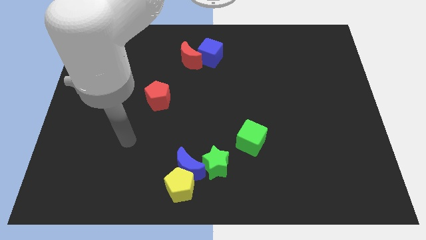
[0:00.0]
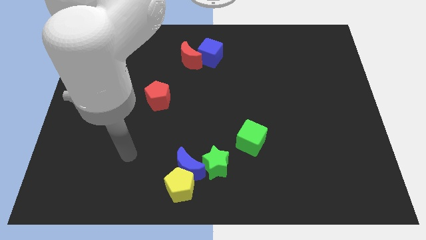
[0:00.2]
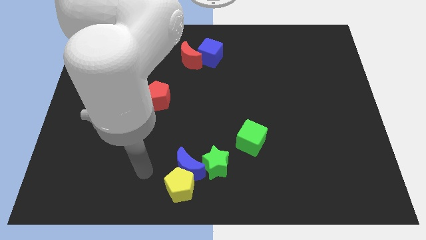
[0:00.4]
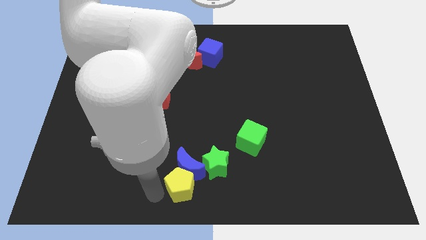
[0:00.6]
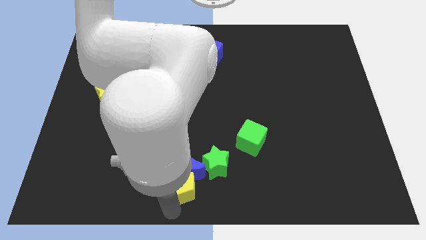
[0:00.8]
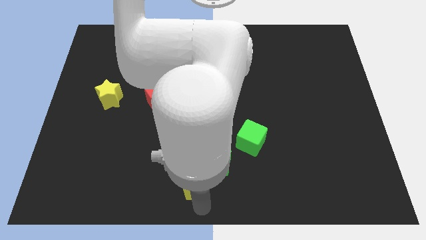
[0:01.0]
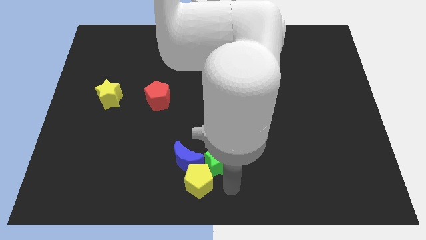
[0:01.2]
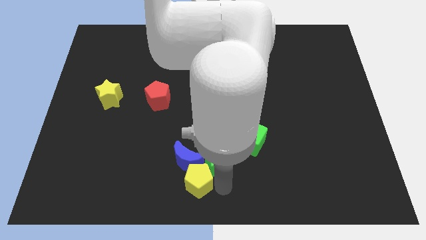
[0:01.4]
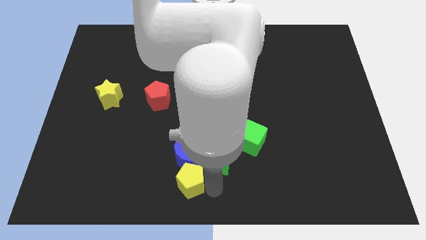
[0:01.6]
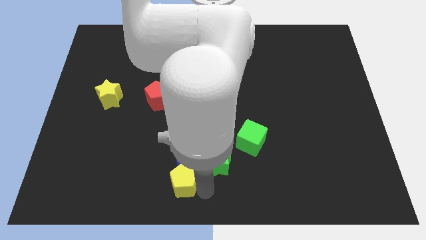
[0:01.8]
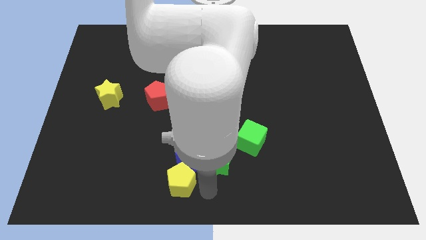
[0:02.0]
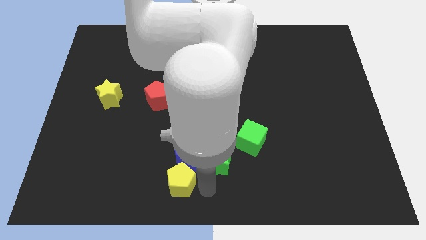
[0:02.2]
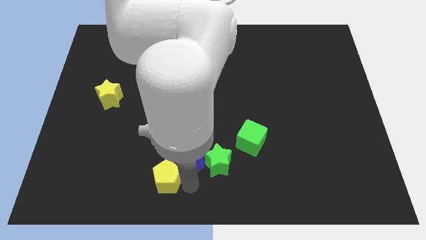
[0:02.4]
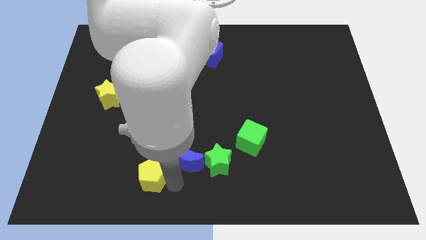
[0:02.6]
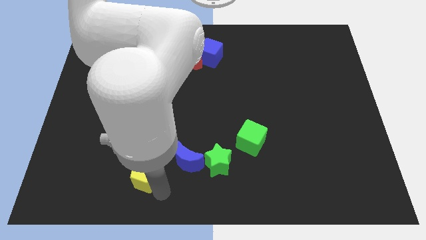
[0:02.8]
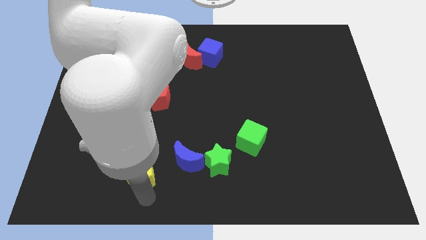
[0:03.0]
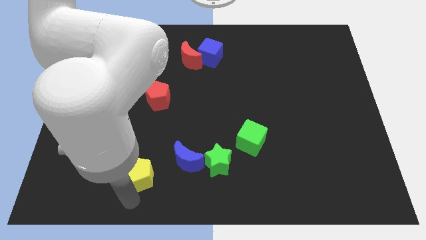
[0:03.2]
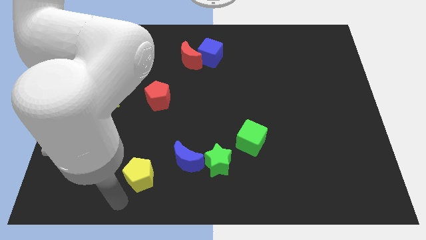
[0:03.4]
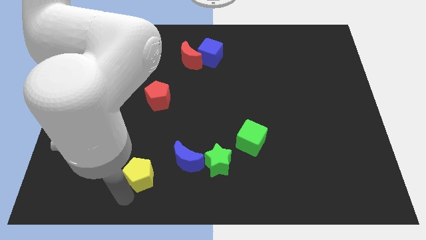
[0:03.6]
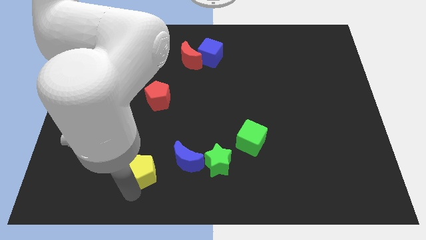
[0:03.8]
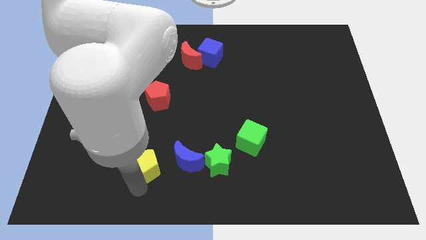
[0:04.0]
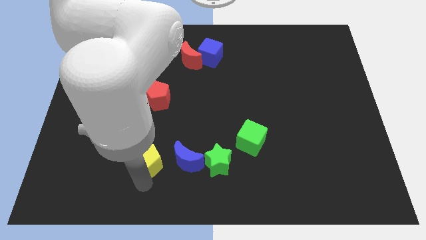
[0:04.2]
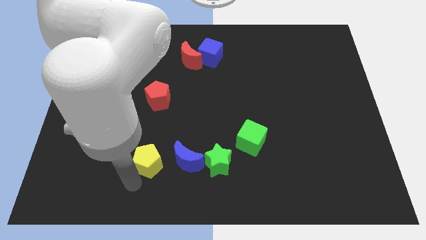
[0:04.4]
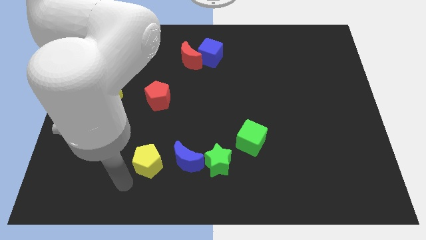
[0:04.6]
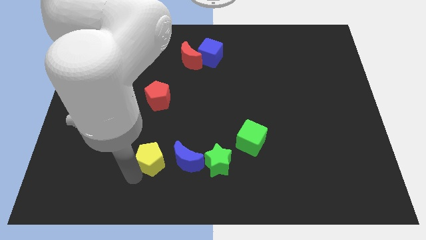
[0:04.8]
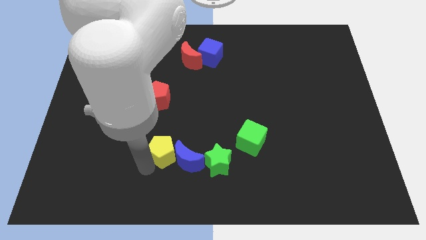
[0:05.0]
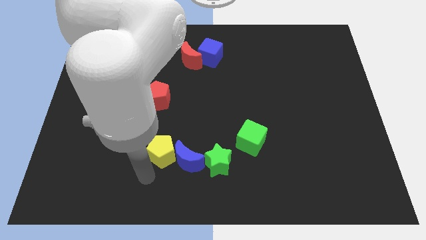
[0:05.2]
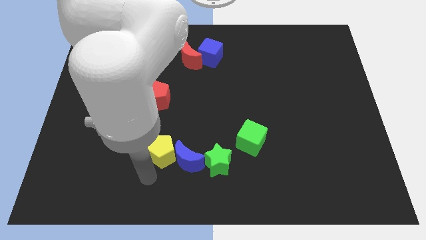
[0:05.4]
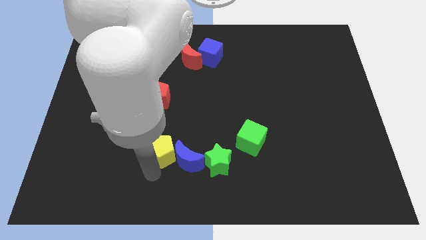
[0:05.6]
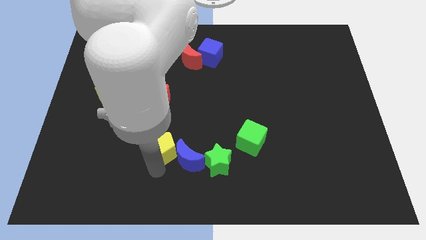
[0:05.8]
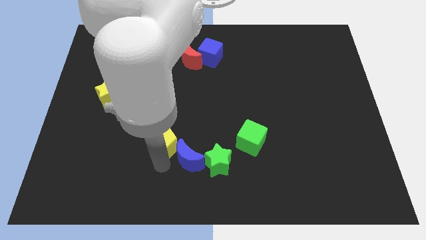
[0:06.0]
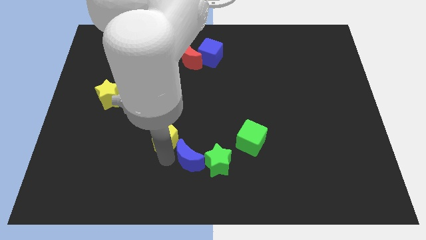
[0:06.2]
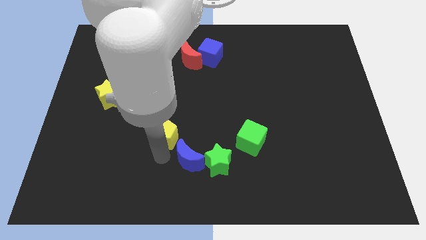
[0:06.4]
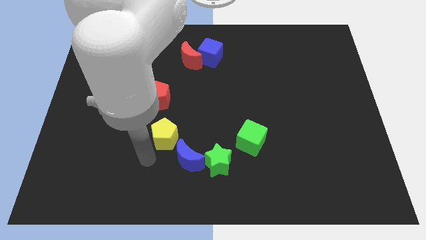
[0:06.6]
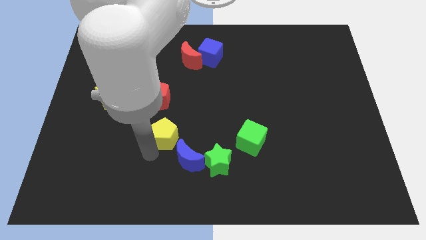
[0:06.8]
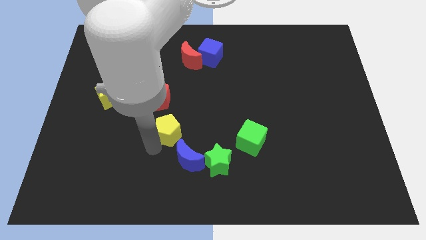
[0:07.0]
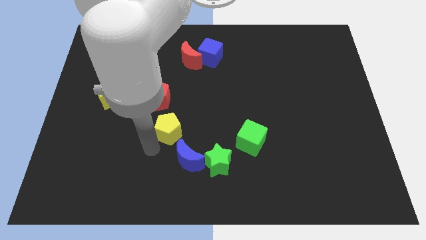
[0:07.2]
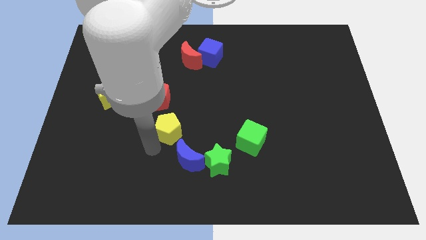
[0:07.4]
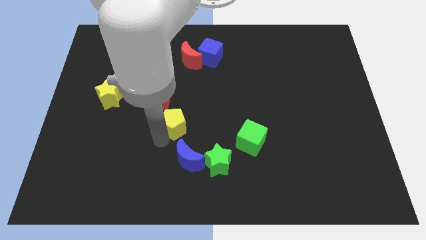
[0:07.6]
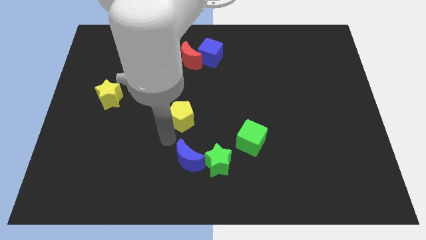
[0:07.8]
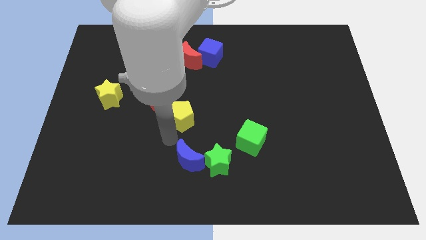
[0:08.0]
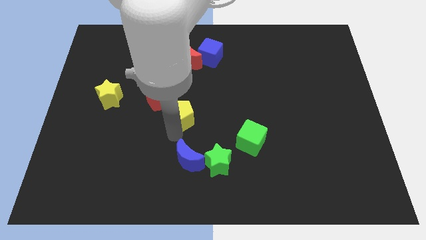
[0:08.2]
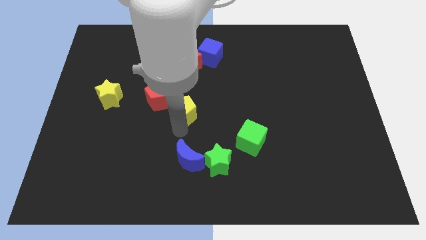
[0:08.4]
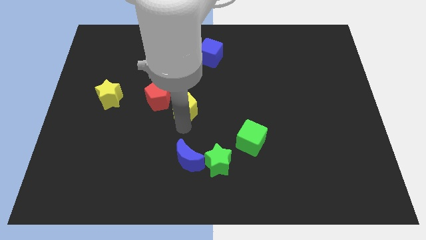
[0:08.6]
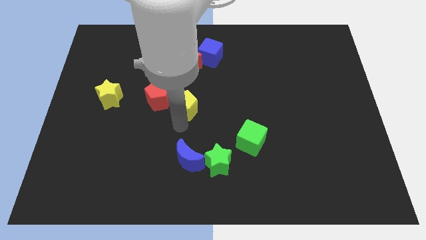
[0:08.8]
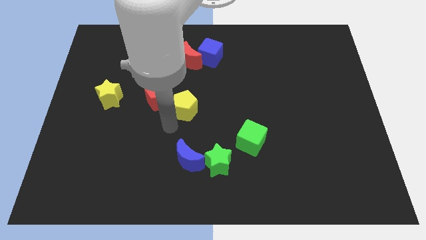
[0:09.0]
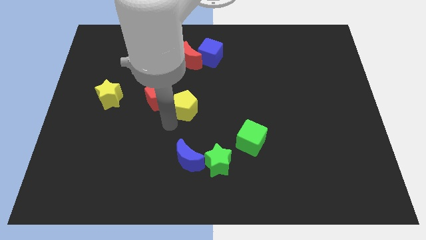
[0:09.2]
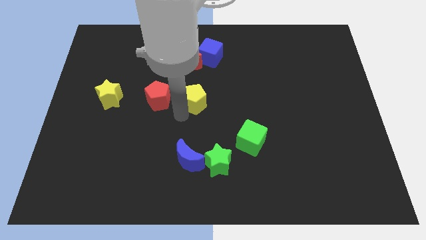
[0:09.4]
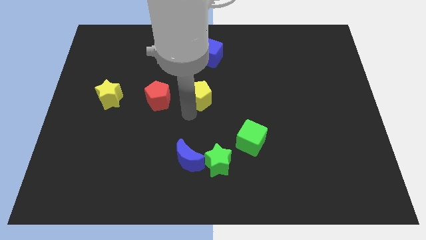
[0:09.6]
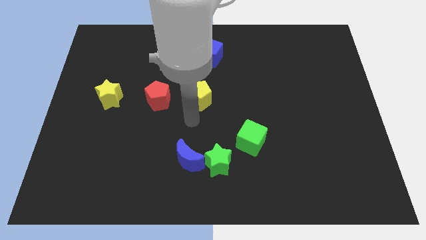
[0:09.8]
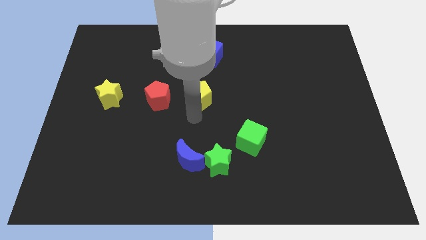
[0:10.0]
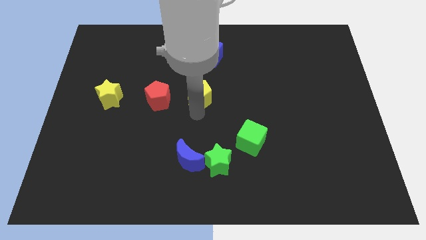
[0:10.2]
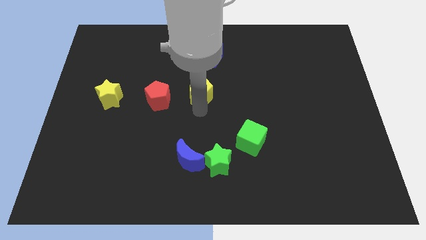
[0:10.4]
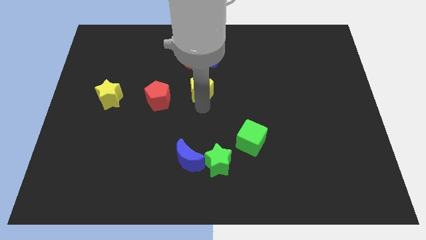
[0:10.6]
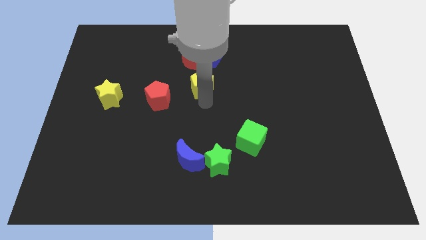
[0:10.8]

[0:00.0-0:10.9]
slide the yellow pentagon to the bottom right of the red moon

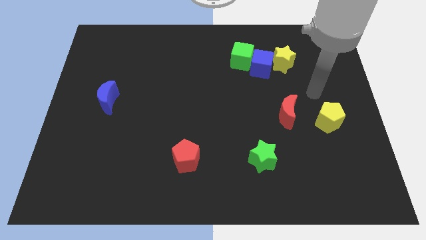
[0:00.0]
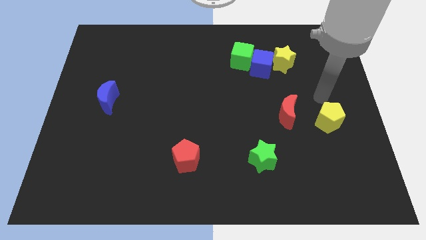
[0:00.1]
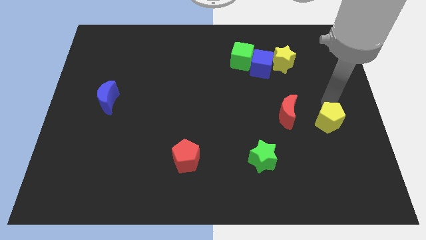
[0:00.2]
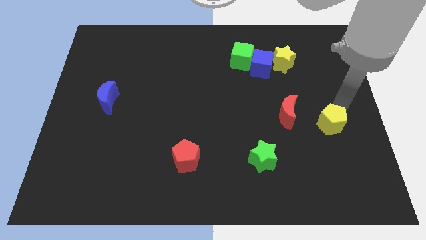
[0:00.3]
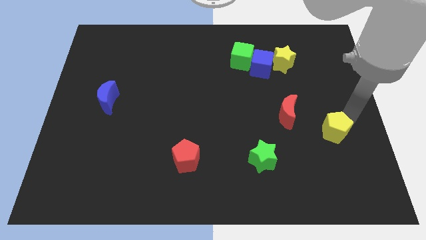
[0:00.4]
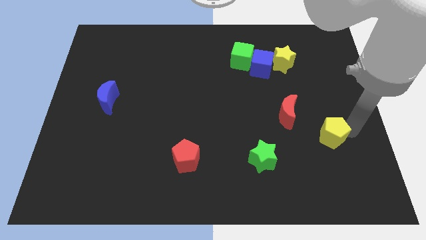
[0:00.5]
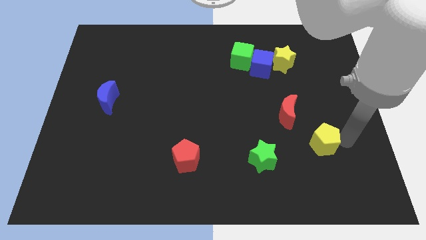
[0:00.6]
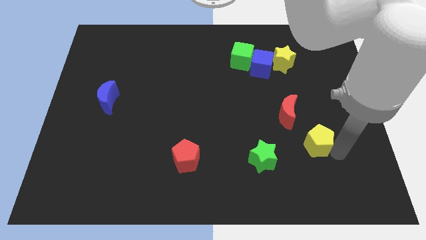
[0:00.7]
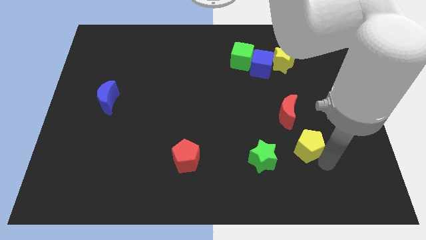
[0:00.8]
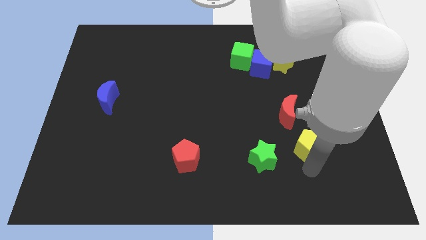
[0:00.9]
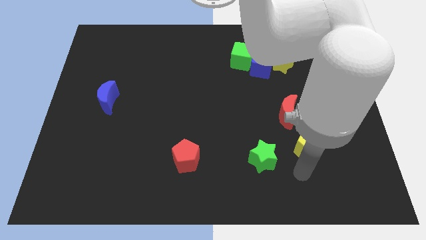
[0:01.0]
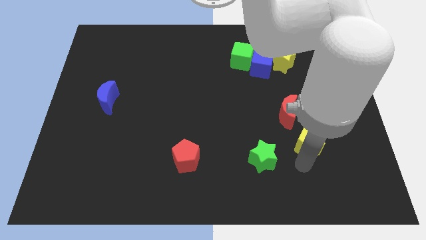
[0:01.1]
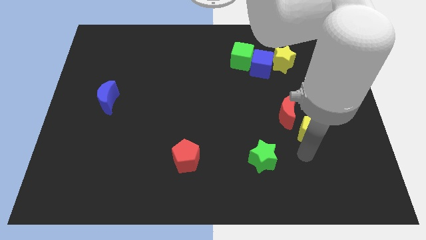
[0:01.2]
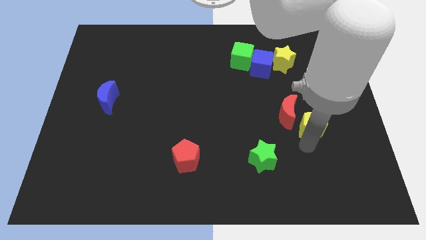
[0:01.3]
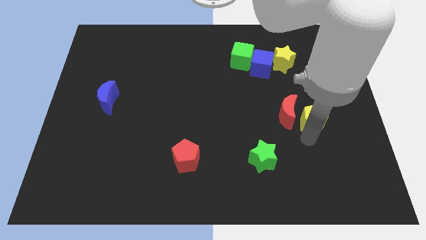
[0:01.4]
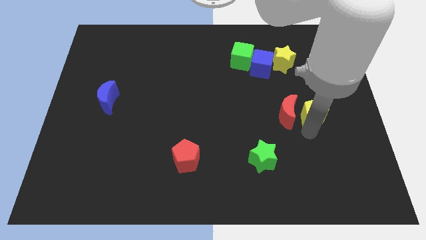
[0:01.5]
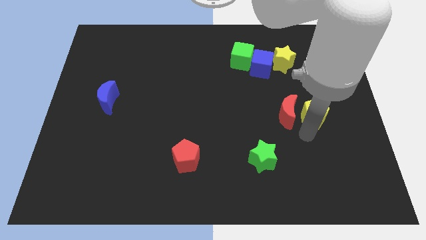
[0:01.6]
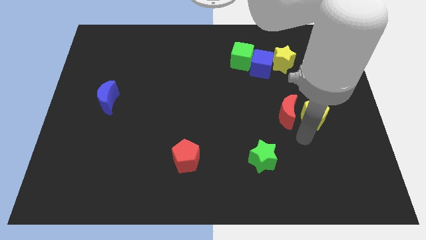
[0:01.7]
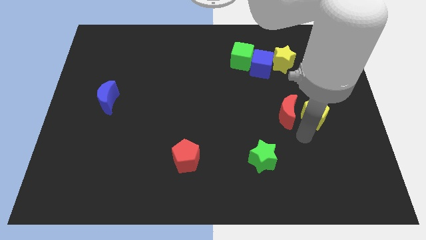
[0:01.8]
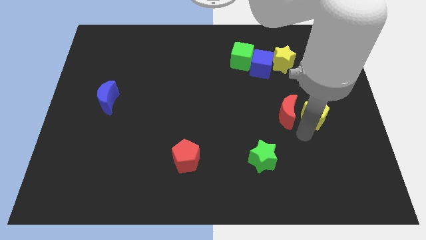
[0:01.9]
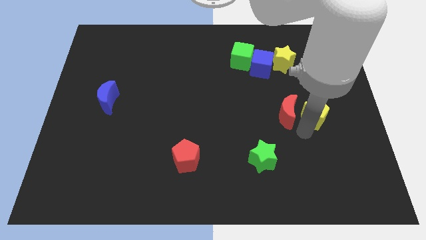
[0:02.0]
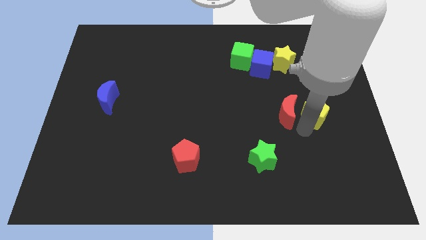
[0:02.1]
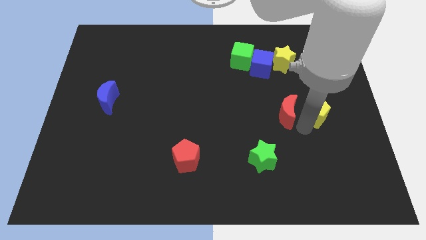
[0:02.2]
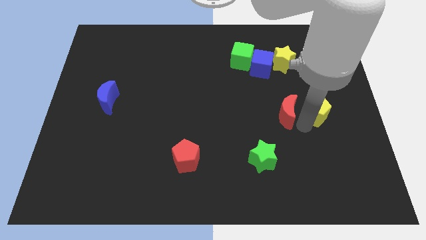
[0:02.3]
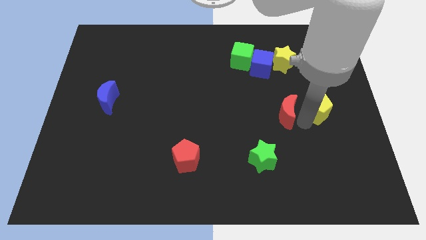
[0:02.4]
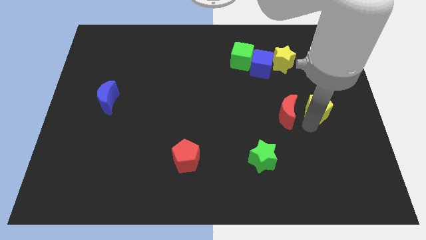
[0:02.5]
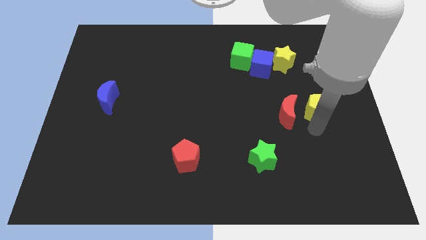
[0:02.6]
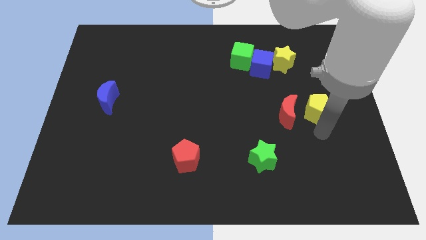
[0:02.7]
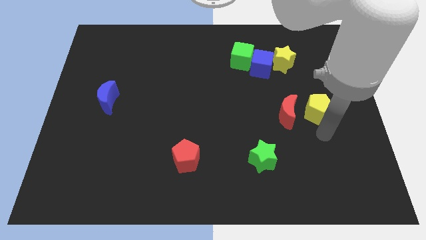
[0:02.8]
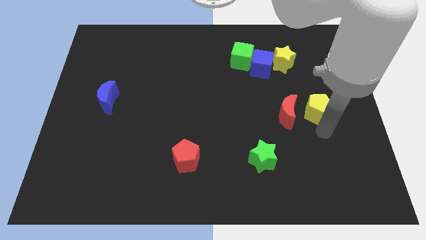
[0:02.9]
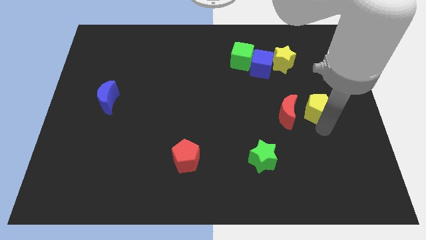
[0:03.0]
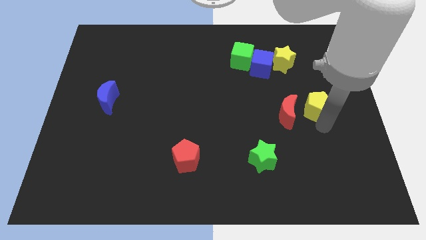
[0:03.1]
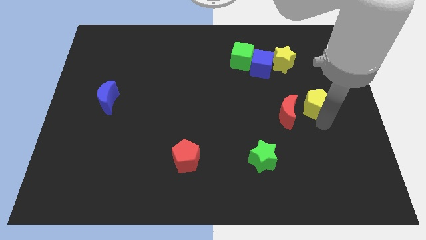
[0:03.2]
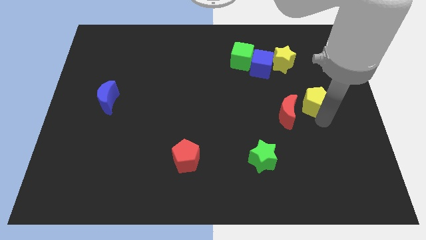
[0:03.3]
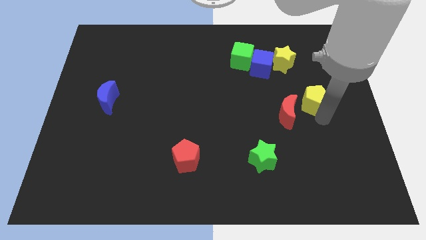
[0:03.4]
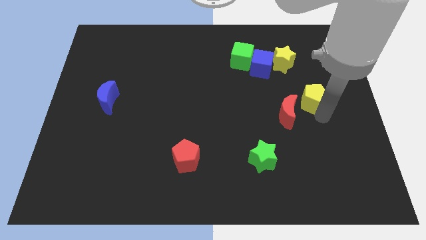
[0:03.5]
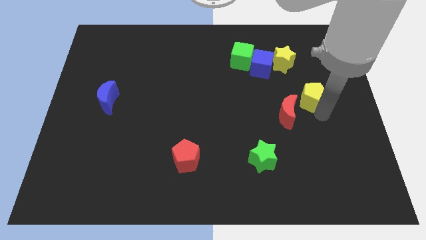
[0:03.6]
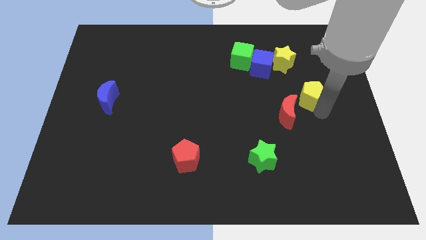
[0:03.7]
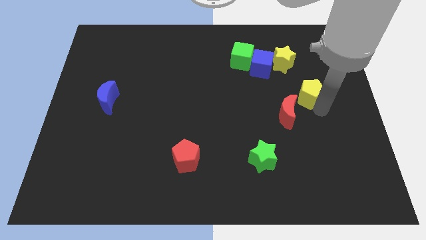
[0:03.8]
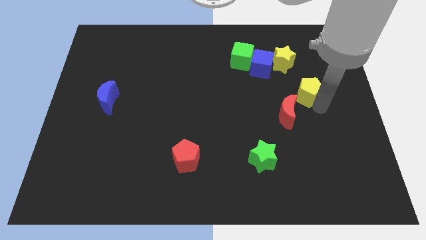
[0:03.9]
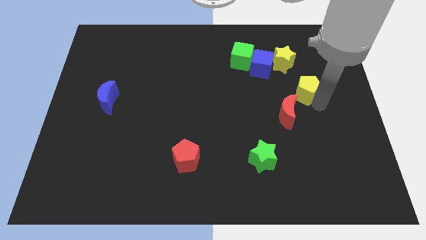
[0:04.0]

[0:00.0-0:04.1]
slide the yellow pentagon to the bottom right of the yellow star
